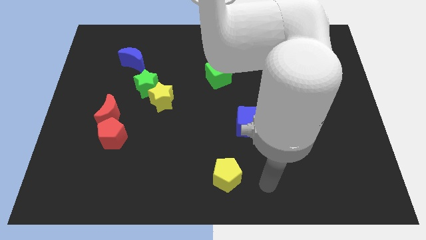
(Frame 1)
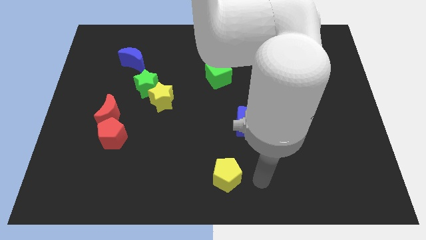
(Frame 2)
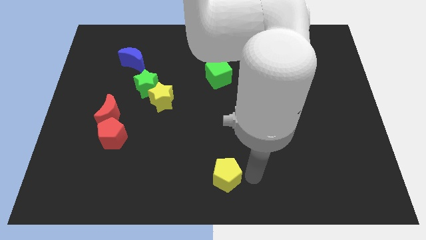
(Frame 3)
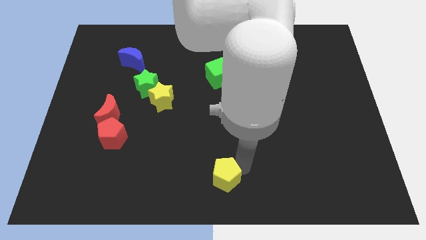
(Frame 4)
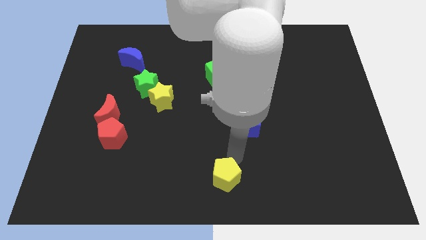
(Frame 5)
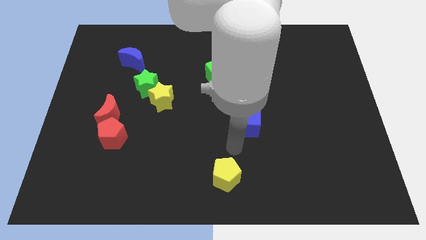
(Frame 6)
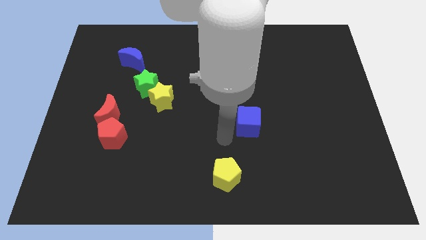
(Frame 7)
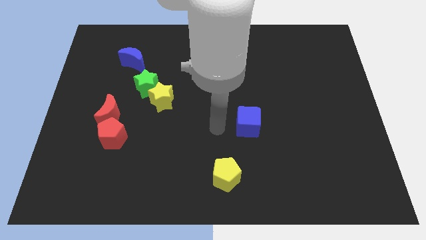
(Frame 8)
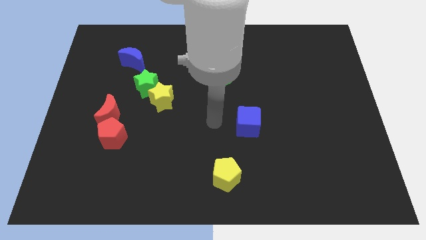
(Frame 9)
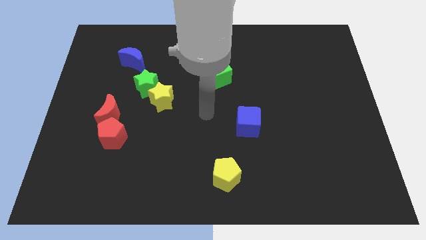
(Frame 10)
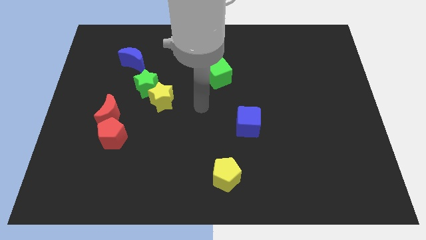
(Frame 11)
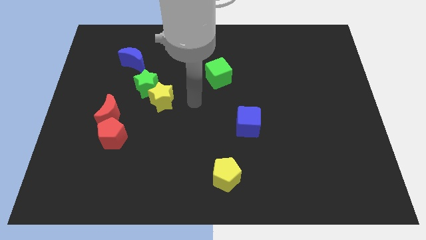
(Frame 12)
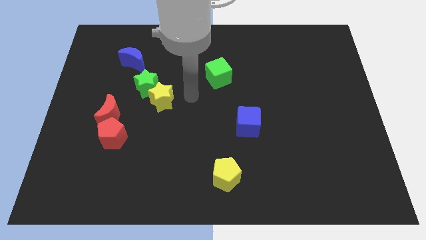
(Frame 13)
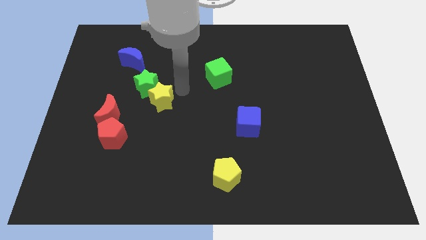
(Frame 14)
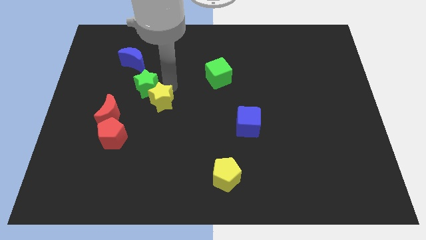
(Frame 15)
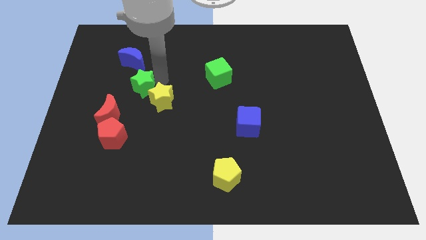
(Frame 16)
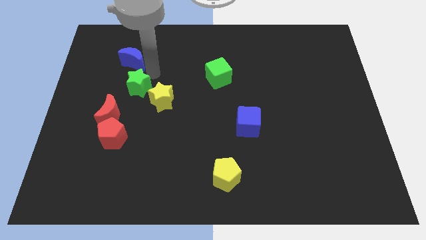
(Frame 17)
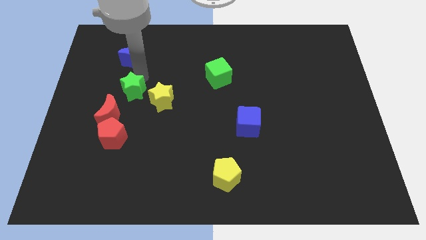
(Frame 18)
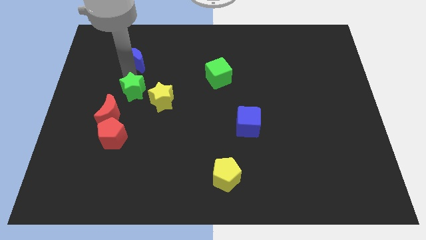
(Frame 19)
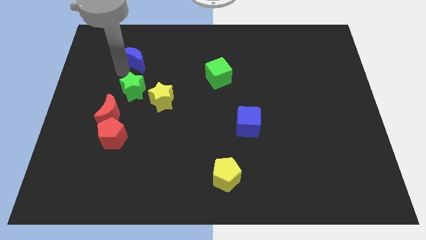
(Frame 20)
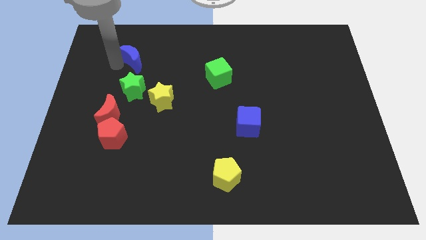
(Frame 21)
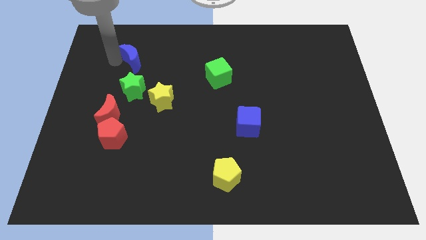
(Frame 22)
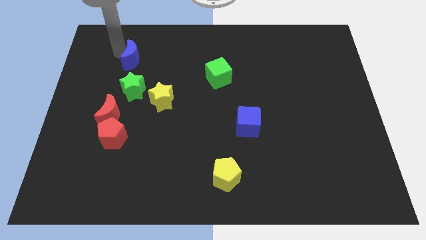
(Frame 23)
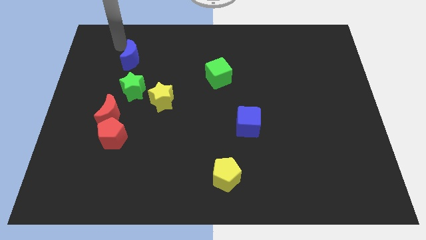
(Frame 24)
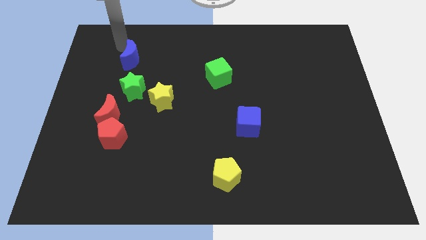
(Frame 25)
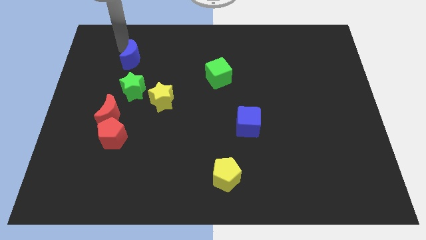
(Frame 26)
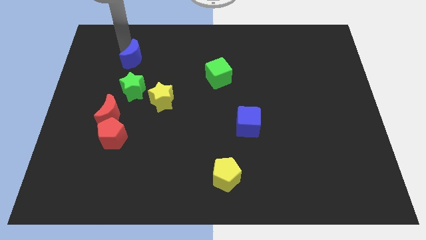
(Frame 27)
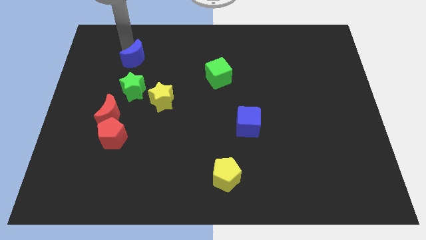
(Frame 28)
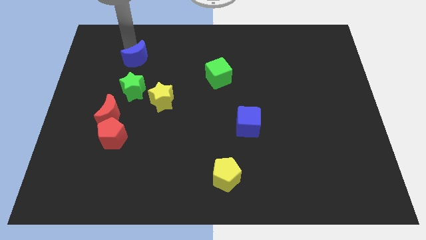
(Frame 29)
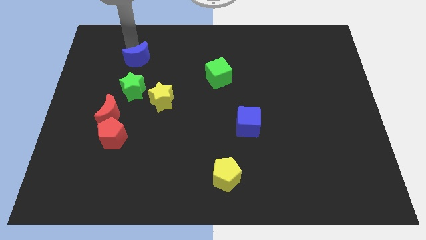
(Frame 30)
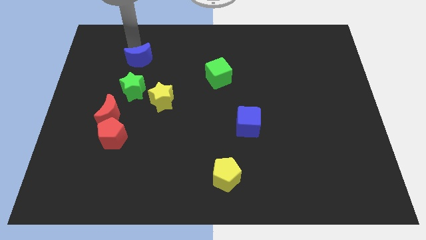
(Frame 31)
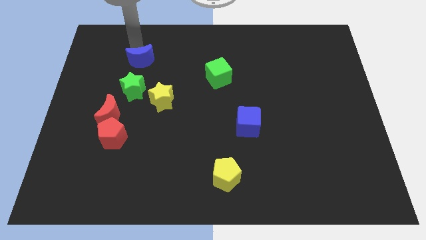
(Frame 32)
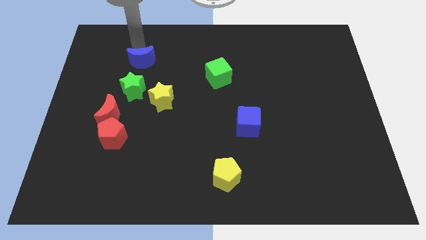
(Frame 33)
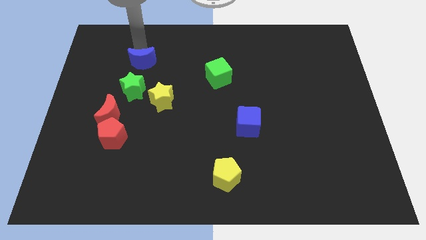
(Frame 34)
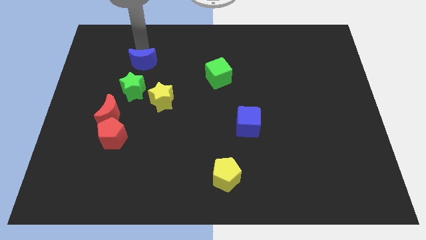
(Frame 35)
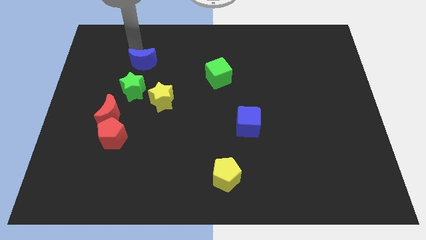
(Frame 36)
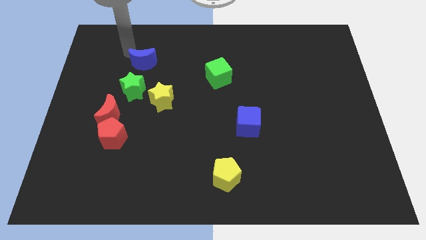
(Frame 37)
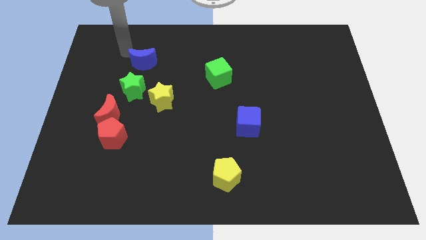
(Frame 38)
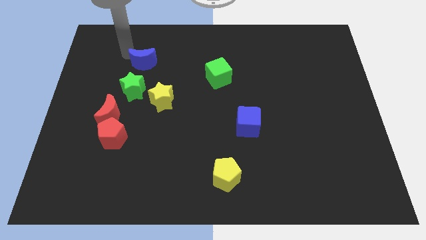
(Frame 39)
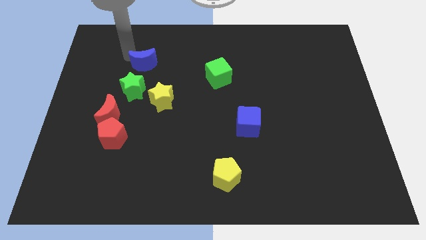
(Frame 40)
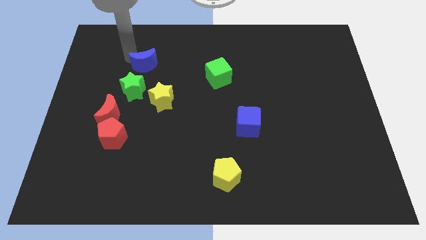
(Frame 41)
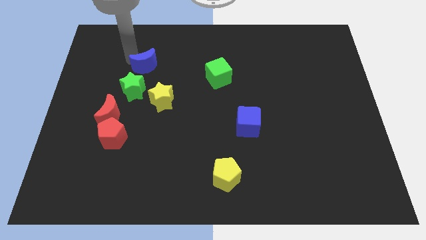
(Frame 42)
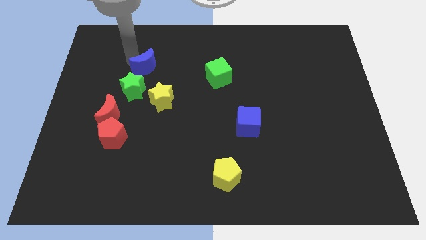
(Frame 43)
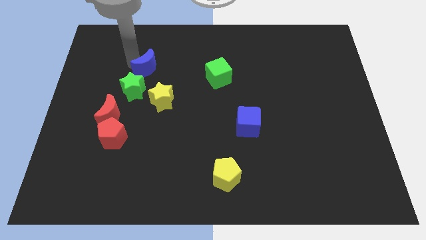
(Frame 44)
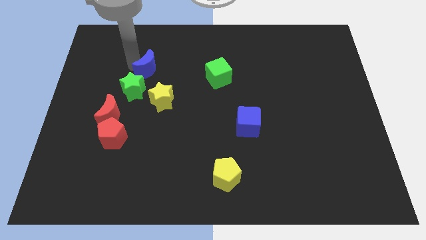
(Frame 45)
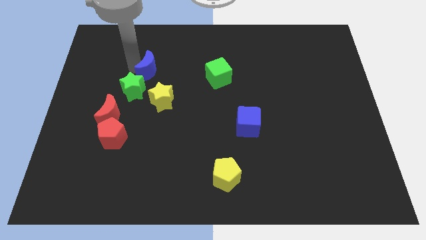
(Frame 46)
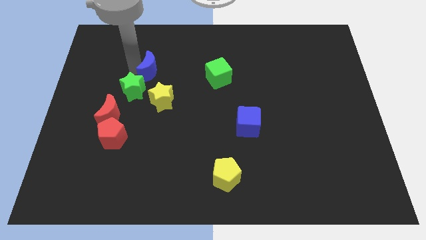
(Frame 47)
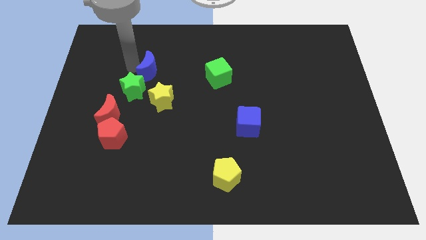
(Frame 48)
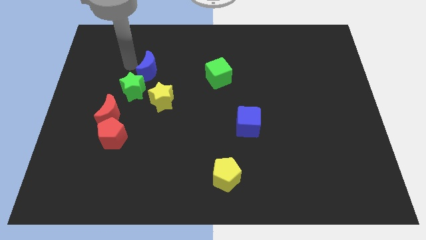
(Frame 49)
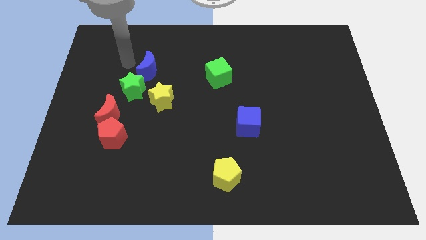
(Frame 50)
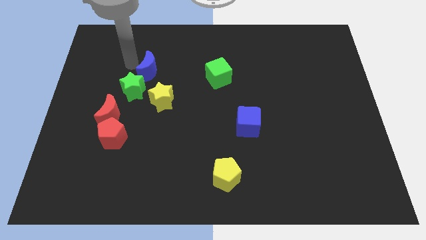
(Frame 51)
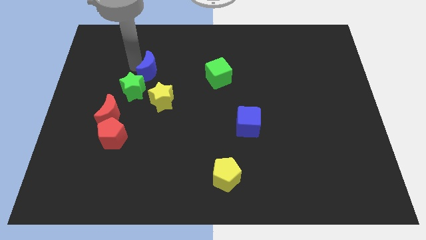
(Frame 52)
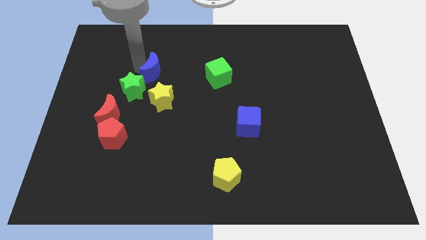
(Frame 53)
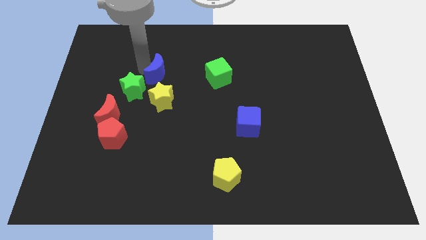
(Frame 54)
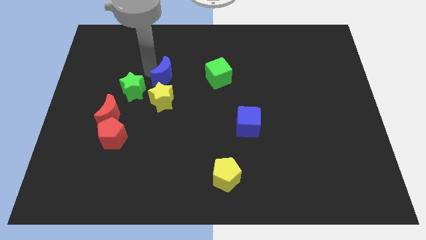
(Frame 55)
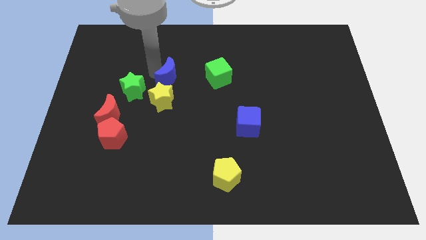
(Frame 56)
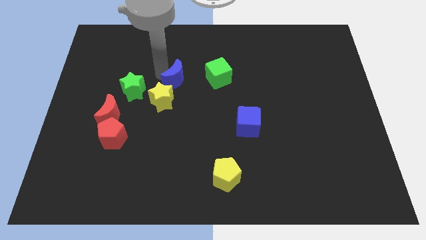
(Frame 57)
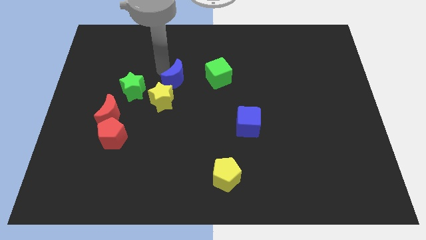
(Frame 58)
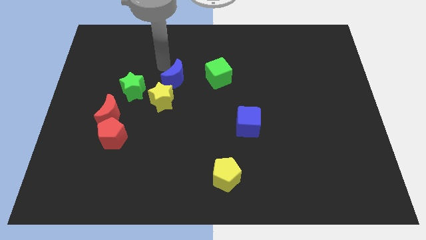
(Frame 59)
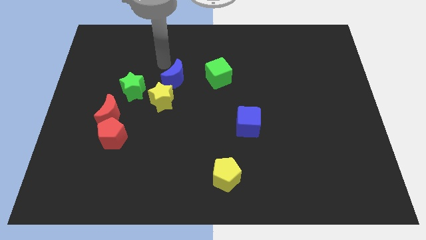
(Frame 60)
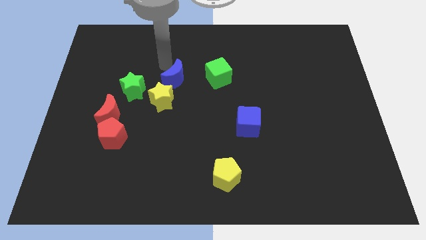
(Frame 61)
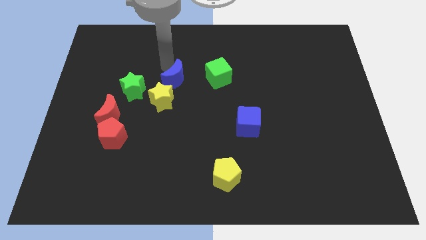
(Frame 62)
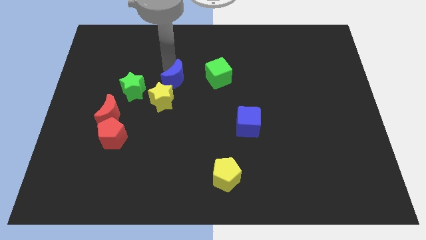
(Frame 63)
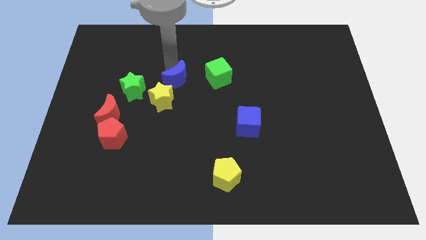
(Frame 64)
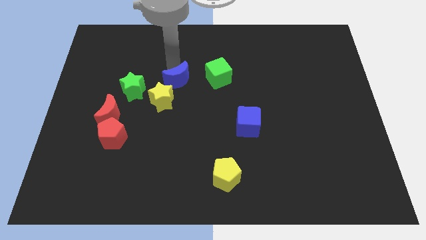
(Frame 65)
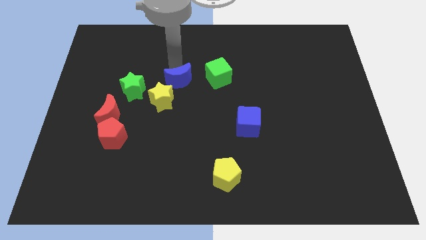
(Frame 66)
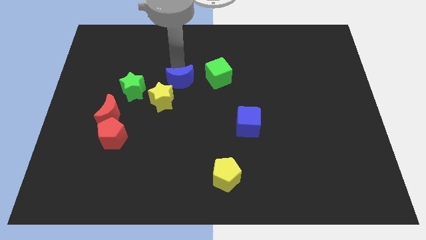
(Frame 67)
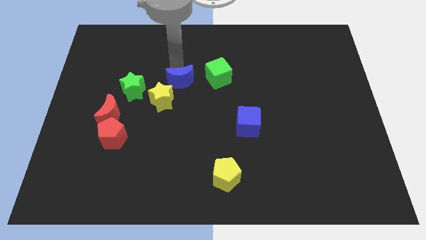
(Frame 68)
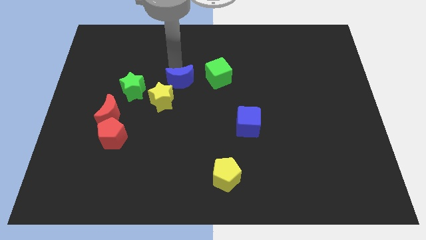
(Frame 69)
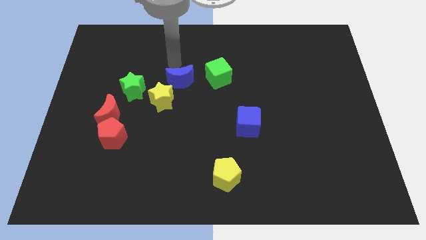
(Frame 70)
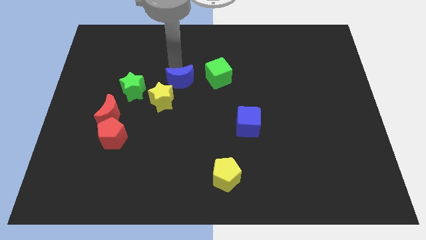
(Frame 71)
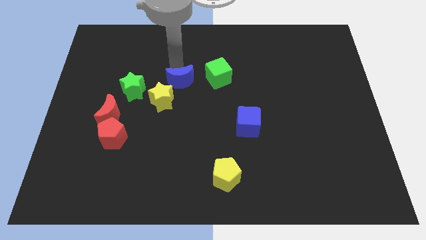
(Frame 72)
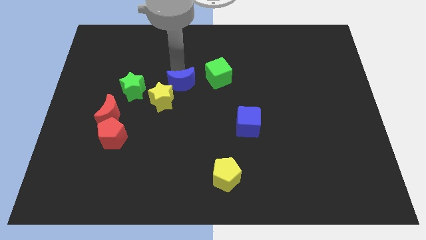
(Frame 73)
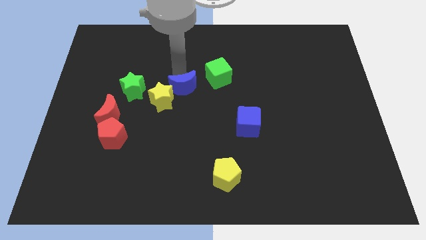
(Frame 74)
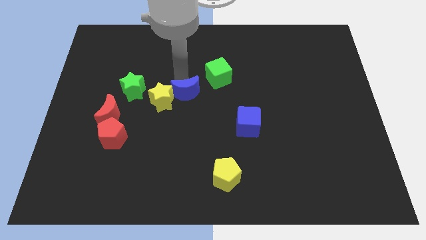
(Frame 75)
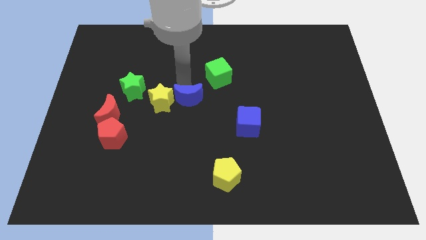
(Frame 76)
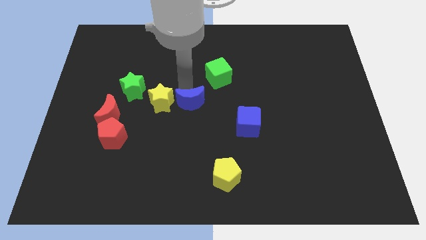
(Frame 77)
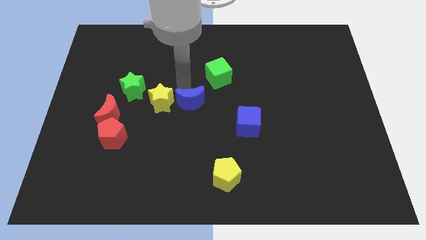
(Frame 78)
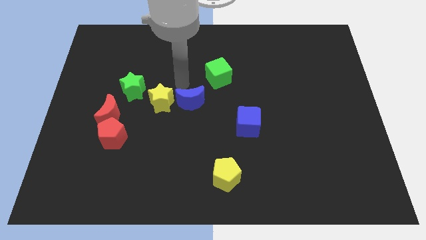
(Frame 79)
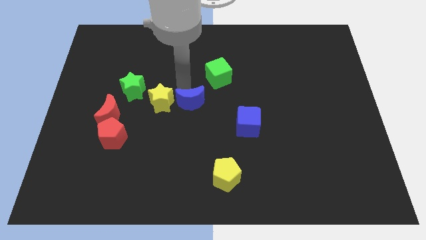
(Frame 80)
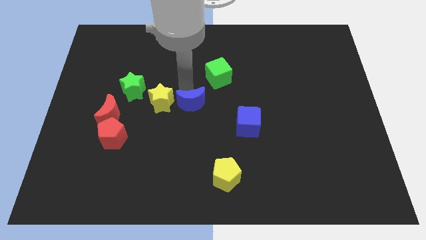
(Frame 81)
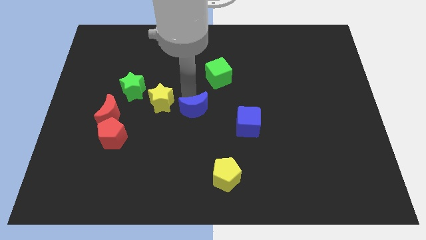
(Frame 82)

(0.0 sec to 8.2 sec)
move the blue moon to the left of the blue cube
